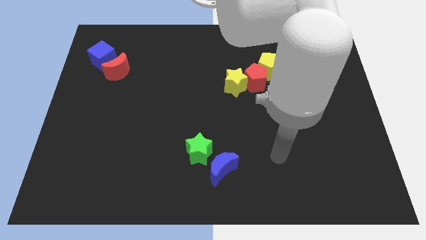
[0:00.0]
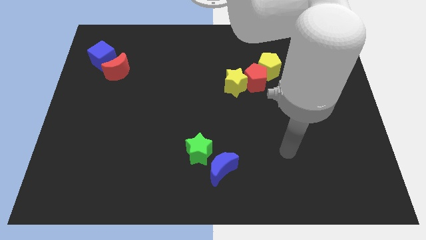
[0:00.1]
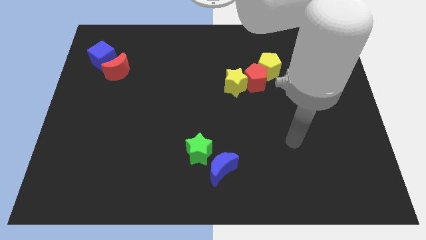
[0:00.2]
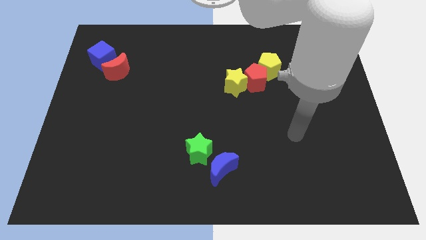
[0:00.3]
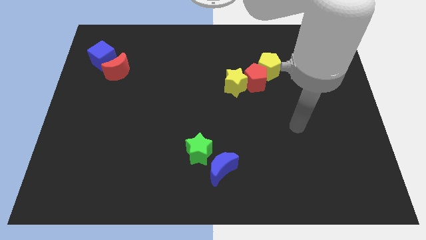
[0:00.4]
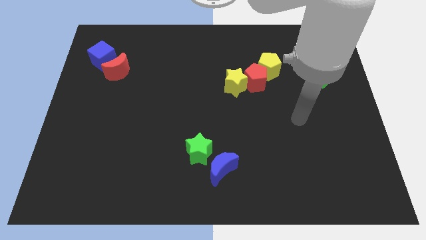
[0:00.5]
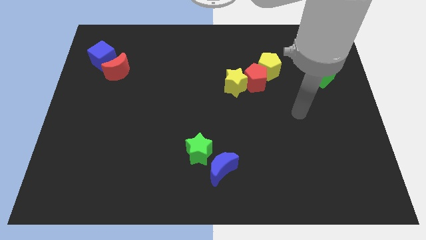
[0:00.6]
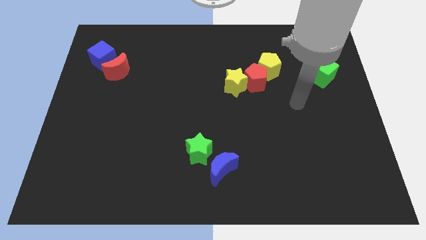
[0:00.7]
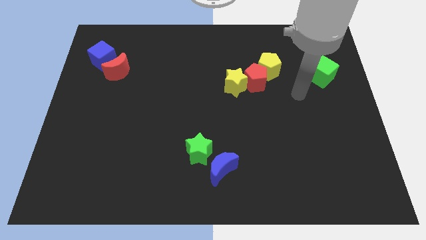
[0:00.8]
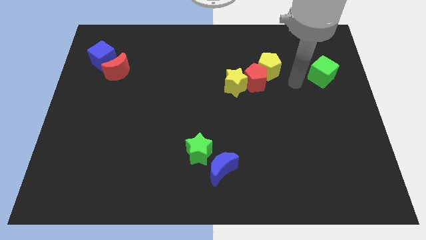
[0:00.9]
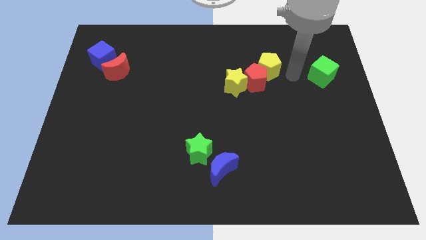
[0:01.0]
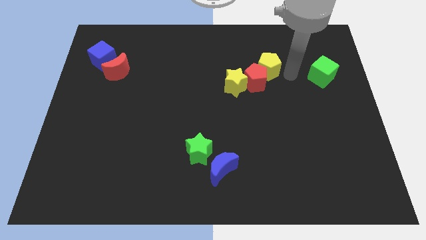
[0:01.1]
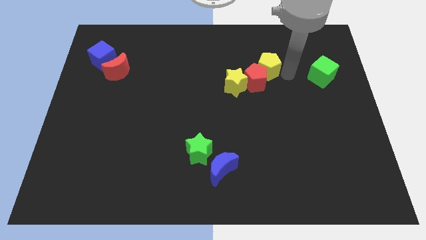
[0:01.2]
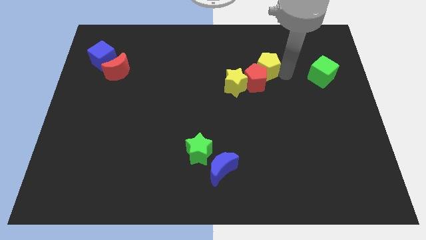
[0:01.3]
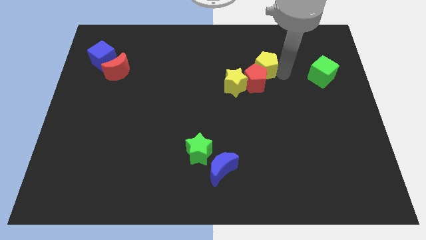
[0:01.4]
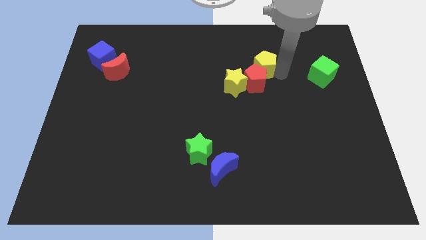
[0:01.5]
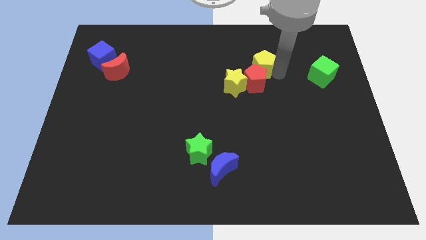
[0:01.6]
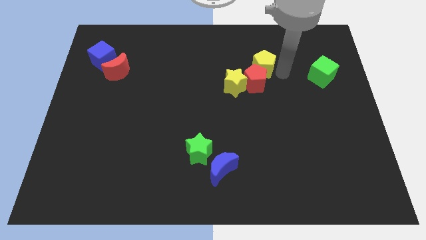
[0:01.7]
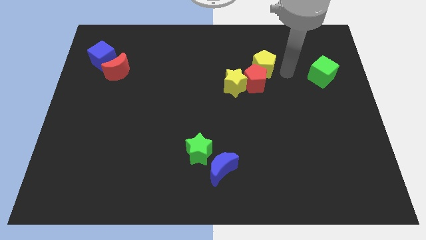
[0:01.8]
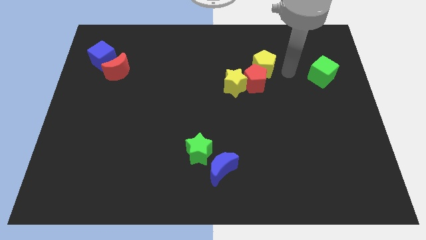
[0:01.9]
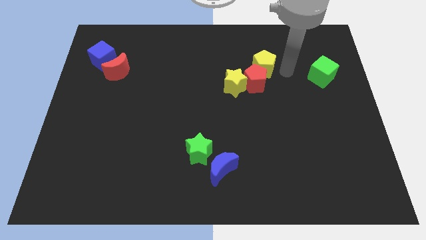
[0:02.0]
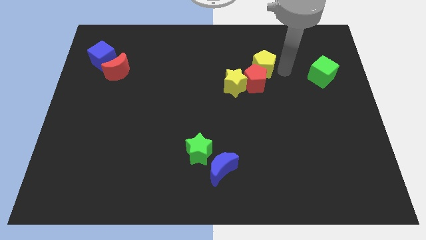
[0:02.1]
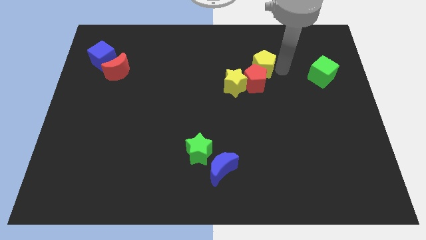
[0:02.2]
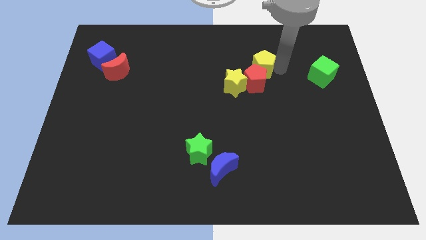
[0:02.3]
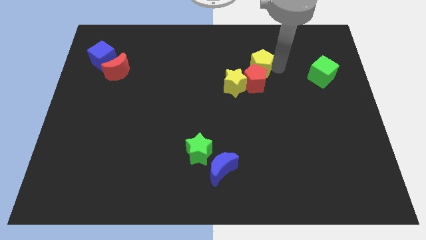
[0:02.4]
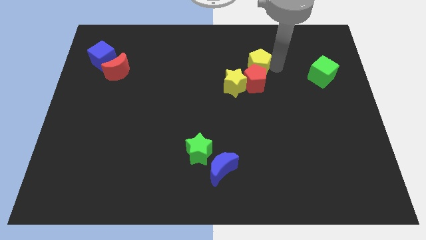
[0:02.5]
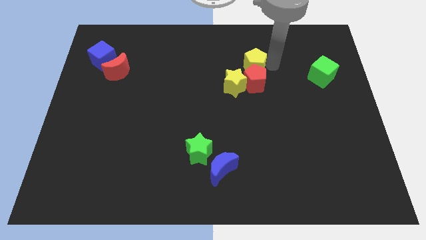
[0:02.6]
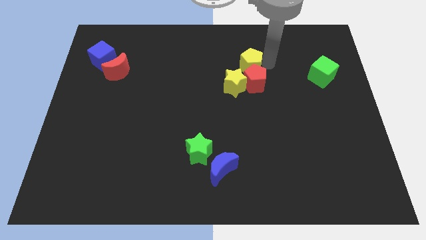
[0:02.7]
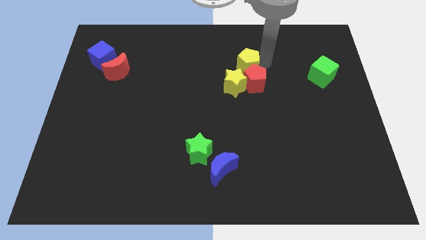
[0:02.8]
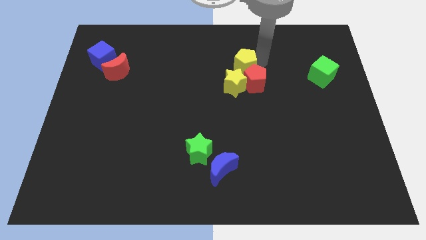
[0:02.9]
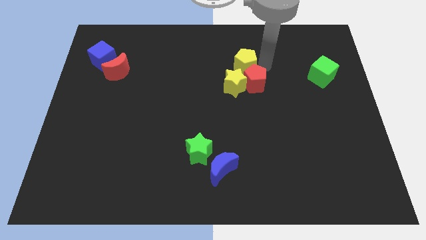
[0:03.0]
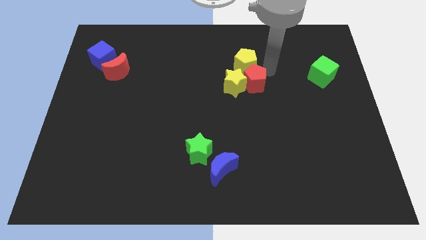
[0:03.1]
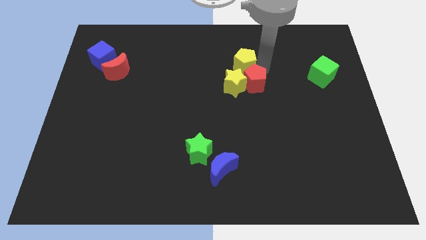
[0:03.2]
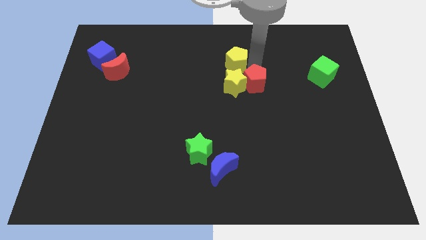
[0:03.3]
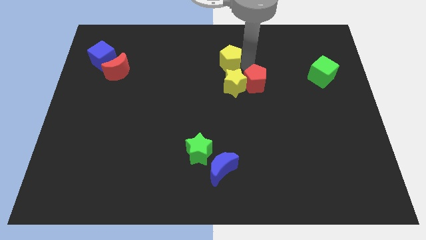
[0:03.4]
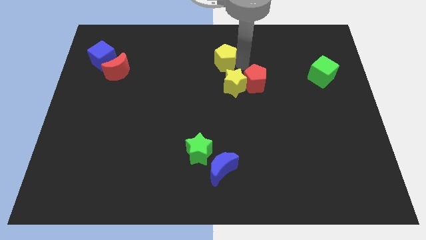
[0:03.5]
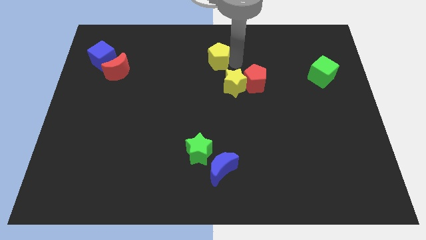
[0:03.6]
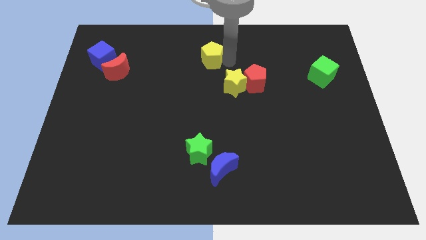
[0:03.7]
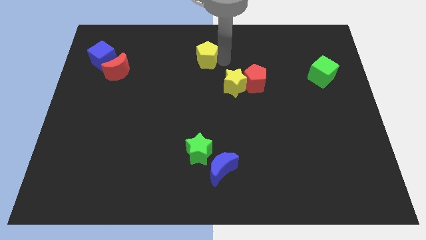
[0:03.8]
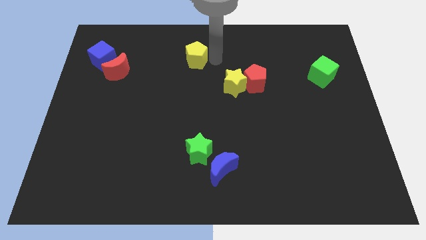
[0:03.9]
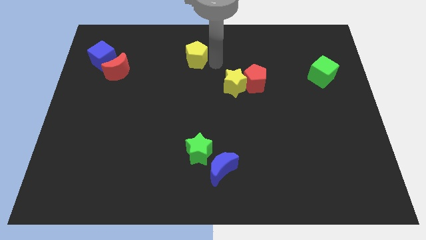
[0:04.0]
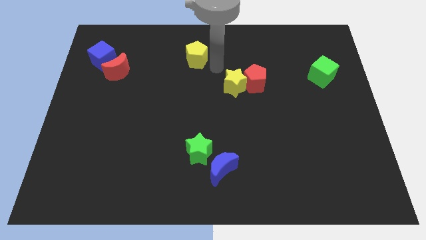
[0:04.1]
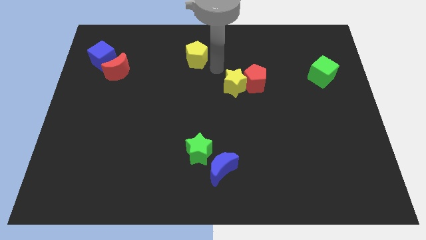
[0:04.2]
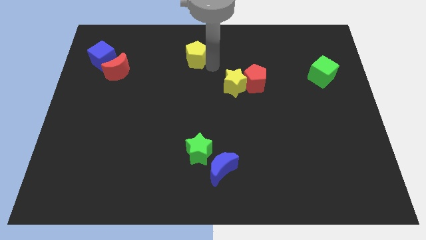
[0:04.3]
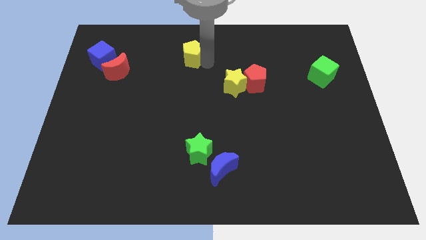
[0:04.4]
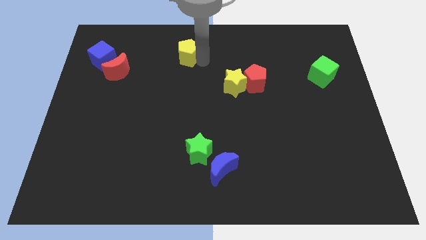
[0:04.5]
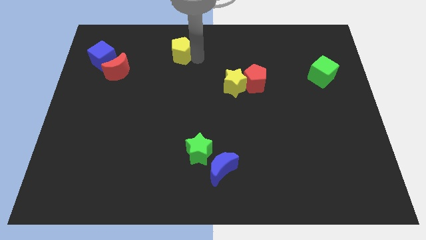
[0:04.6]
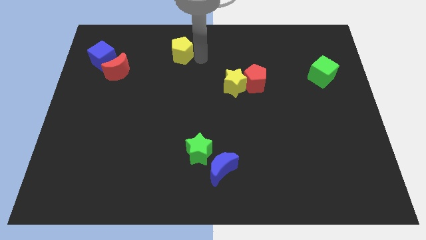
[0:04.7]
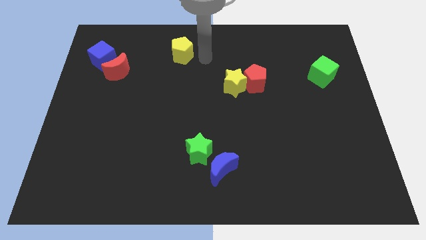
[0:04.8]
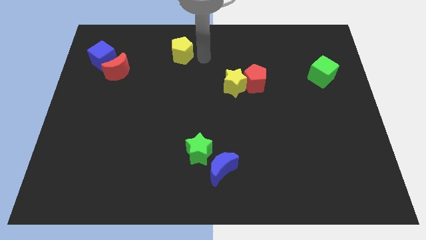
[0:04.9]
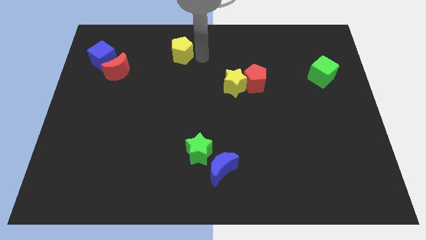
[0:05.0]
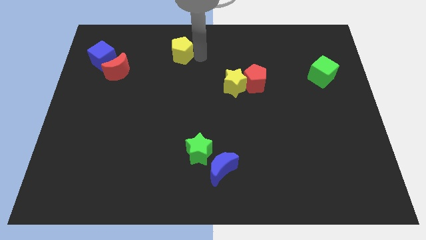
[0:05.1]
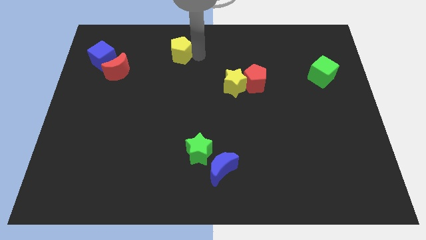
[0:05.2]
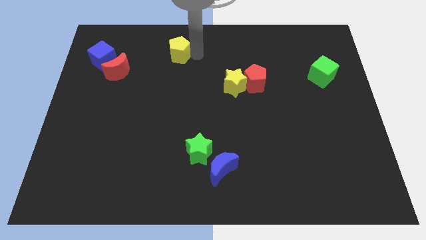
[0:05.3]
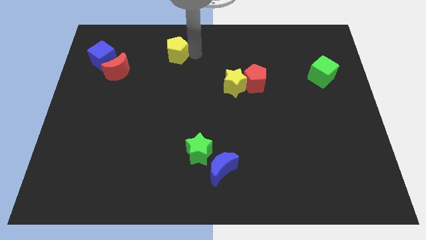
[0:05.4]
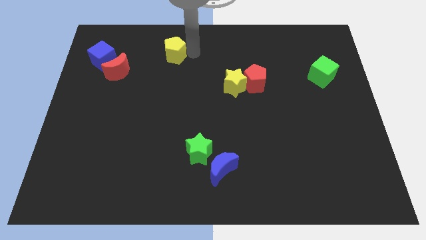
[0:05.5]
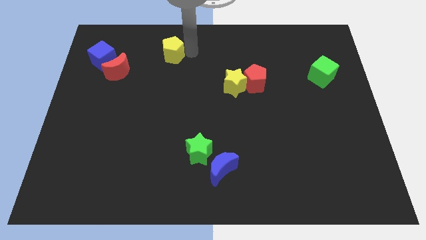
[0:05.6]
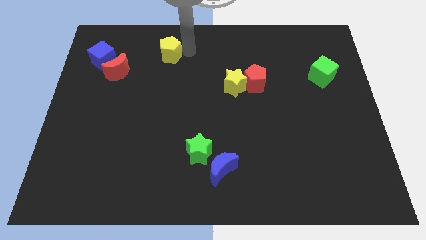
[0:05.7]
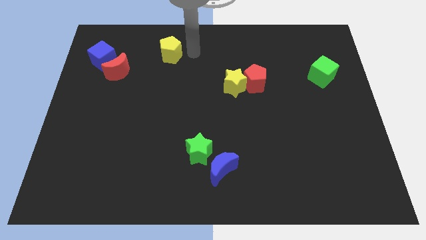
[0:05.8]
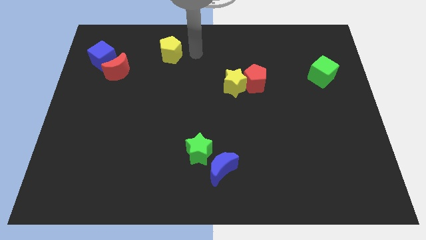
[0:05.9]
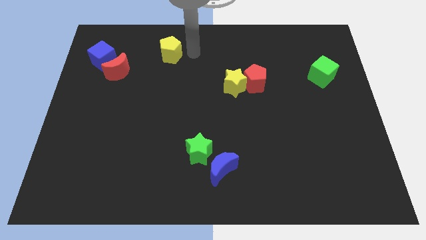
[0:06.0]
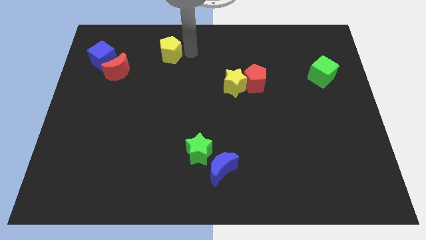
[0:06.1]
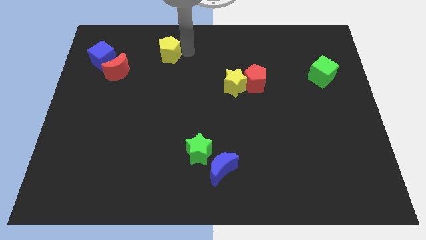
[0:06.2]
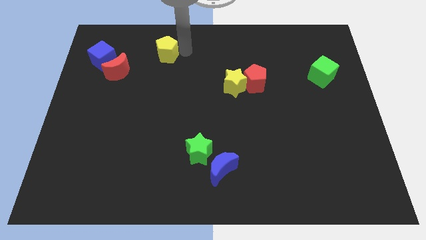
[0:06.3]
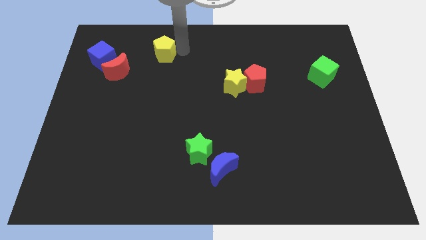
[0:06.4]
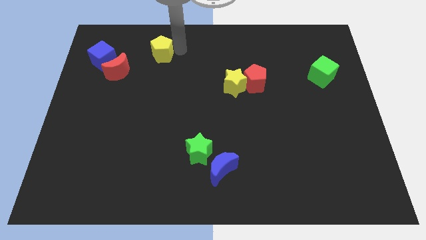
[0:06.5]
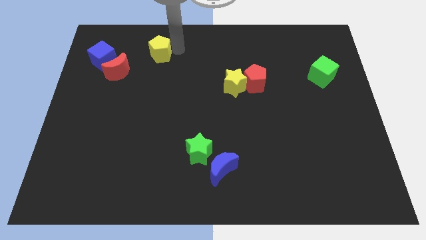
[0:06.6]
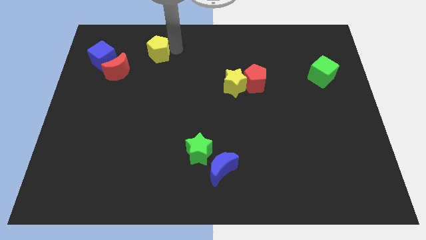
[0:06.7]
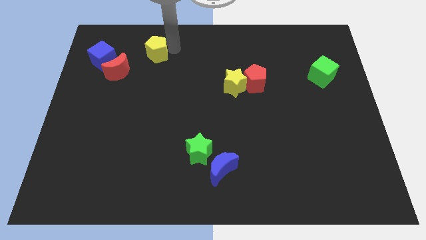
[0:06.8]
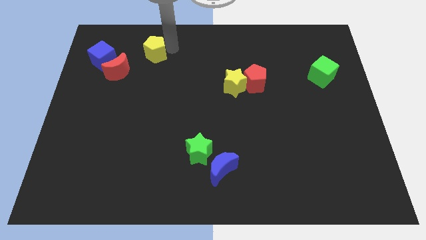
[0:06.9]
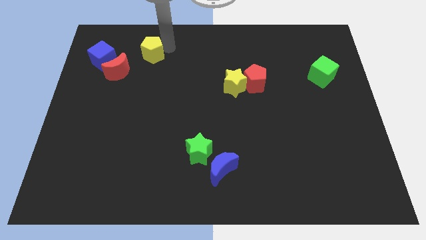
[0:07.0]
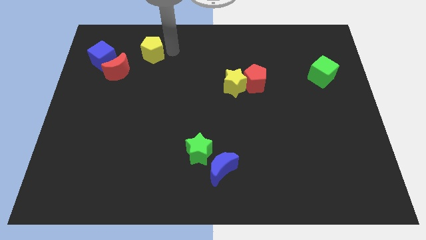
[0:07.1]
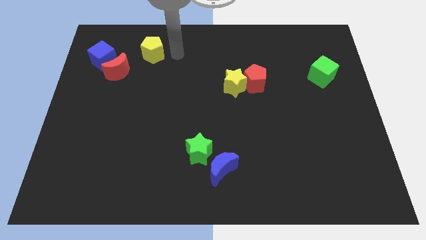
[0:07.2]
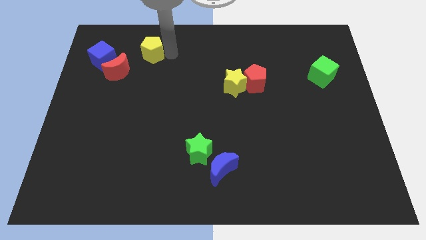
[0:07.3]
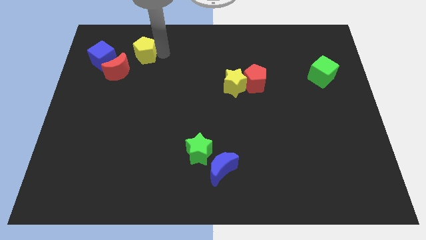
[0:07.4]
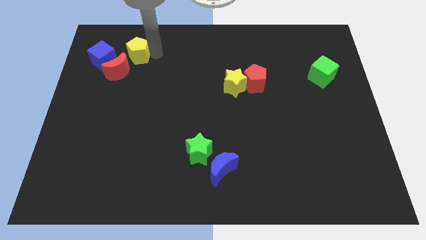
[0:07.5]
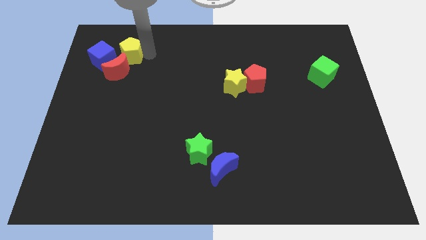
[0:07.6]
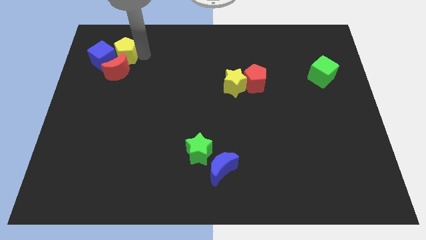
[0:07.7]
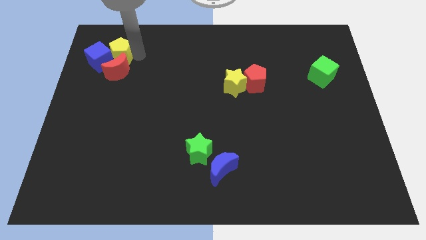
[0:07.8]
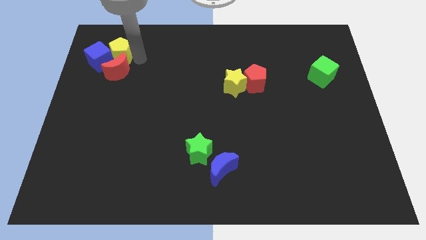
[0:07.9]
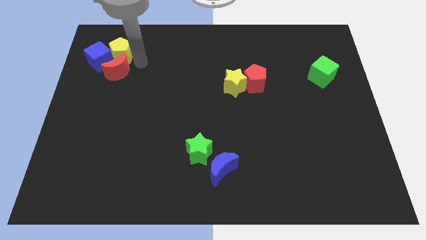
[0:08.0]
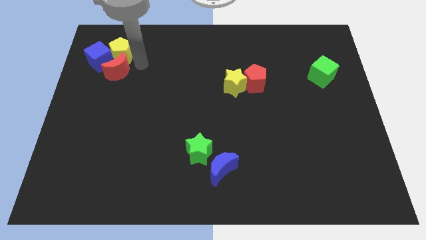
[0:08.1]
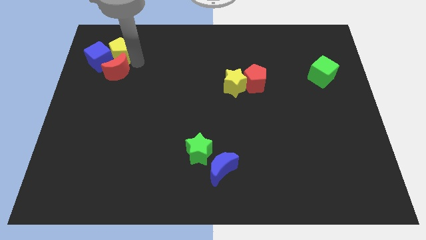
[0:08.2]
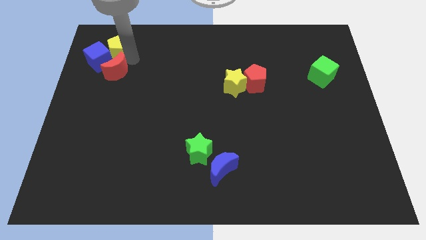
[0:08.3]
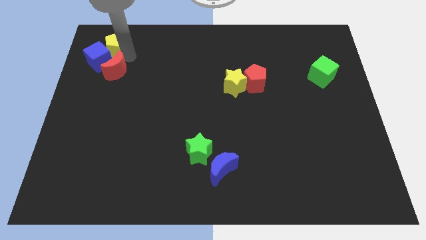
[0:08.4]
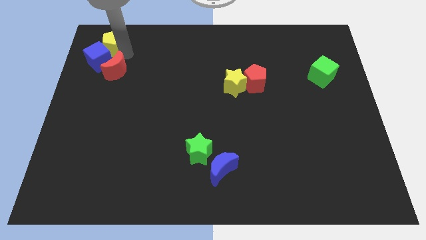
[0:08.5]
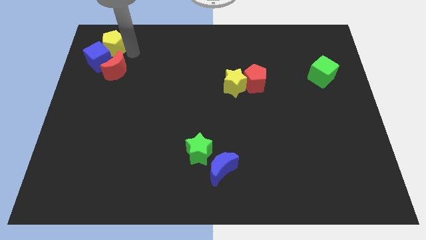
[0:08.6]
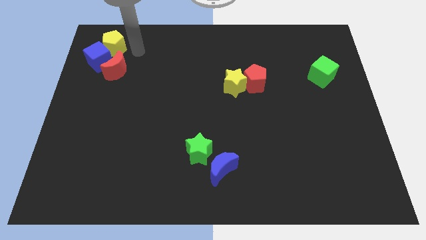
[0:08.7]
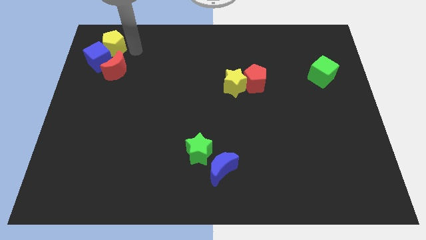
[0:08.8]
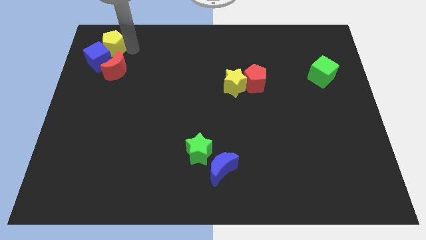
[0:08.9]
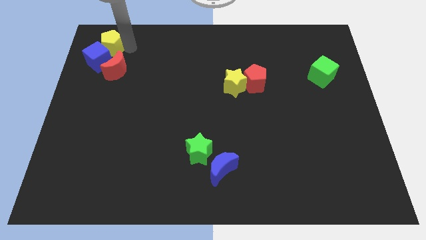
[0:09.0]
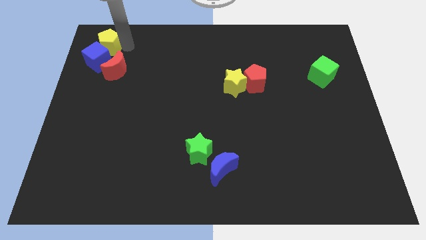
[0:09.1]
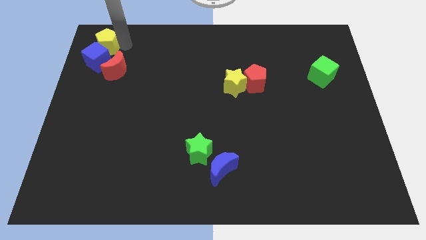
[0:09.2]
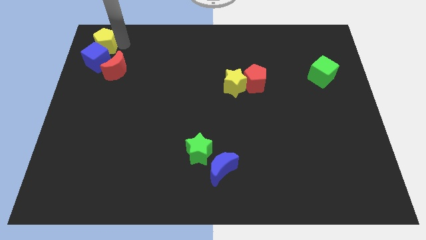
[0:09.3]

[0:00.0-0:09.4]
slide the yellow pentagon to the top left corner
